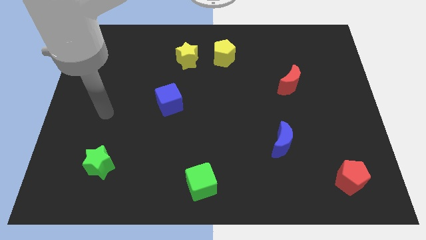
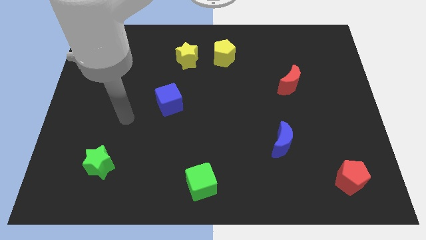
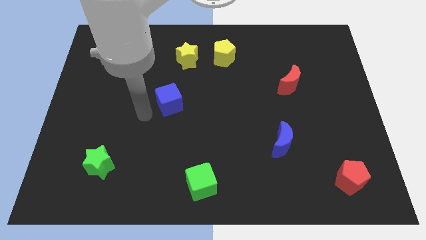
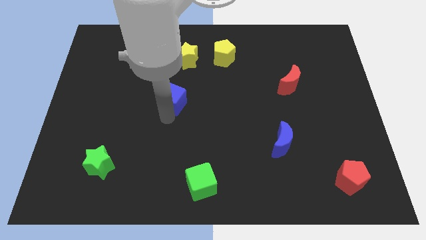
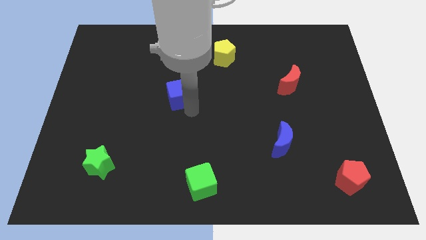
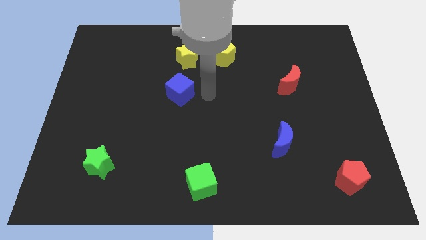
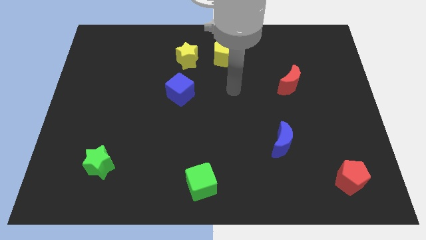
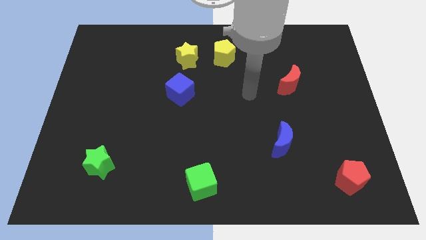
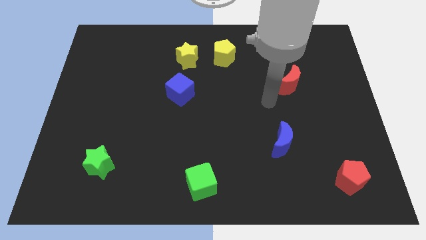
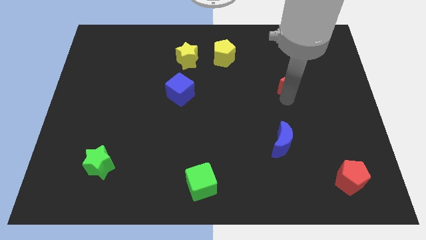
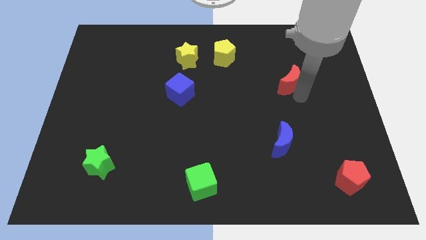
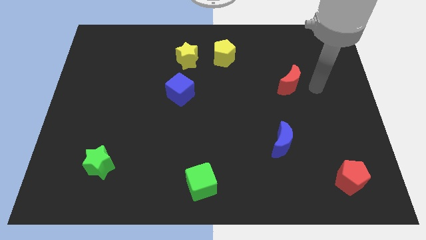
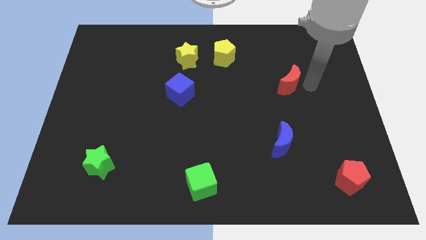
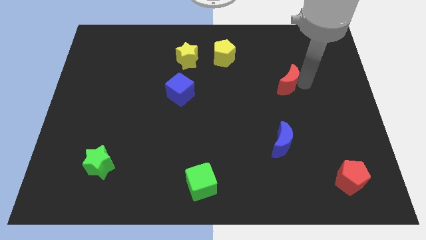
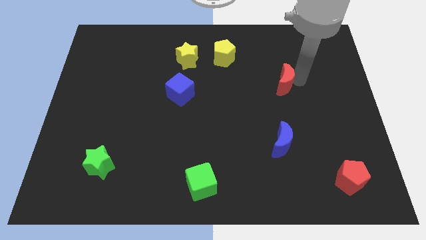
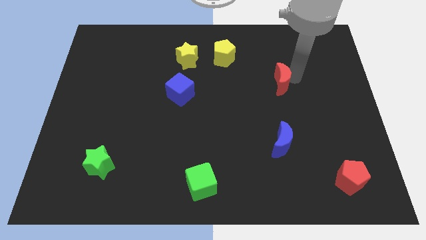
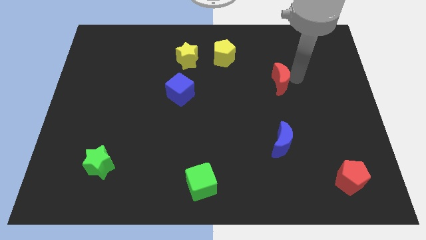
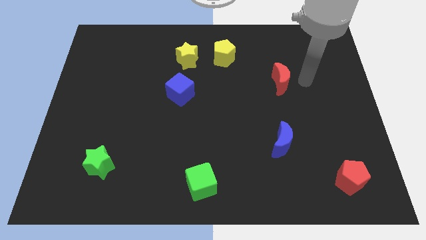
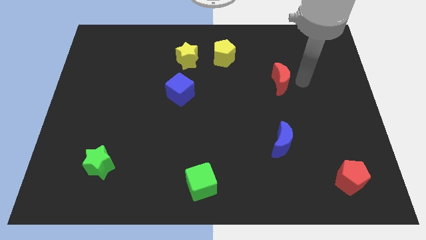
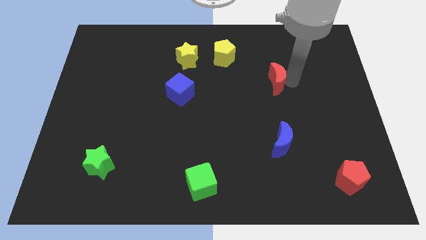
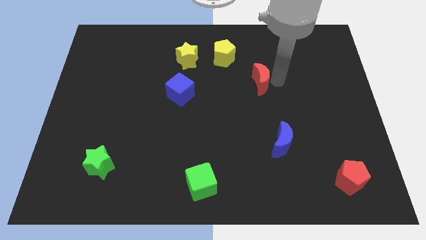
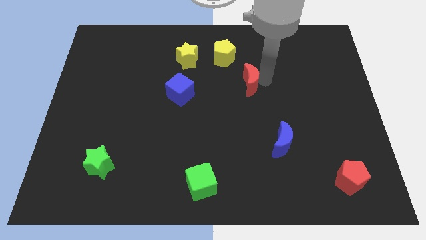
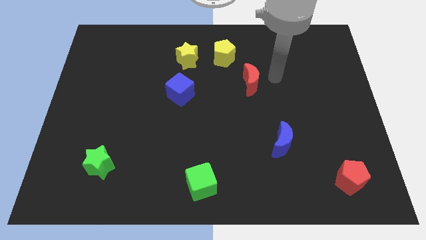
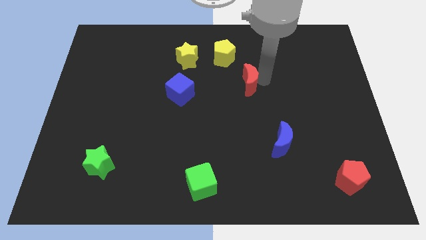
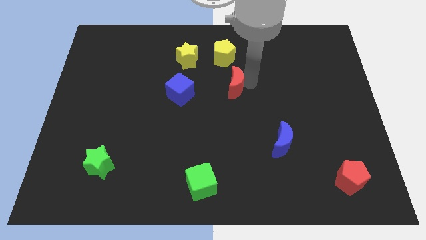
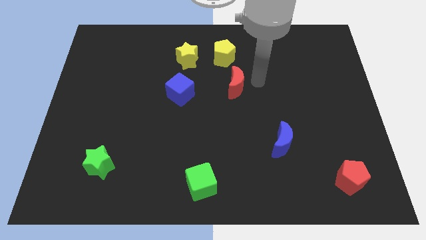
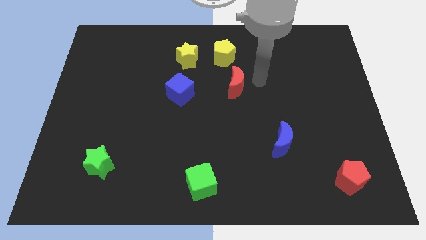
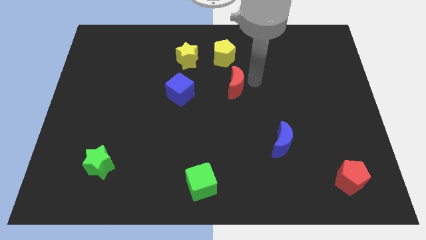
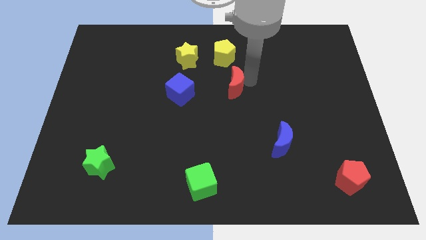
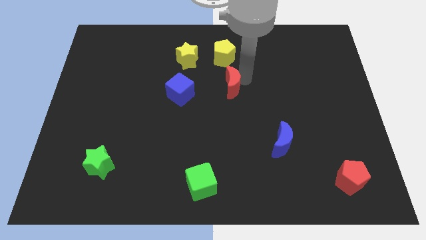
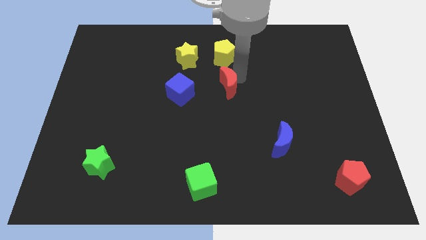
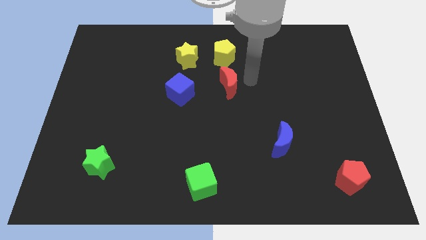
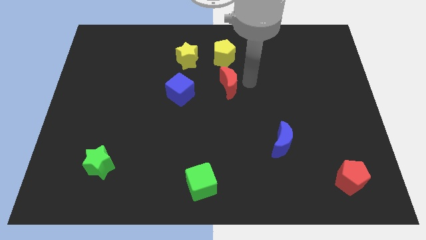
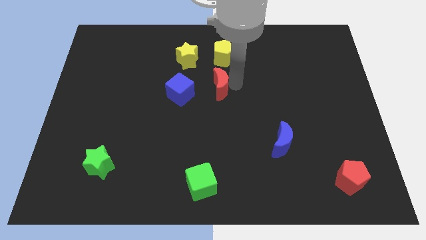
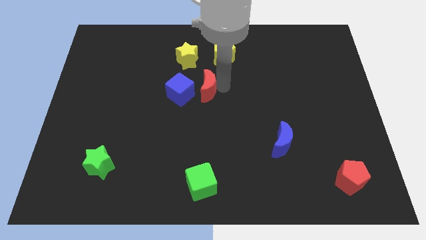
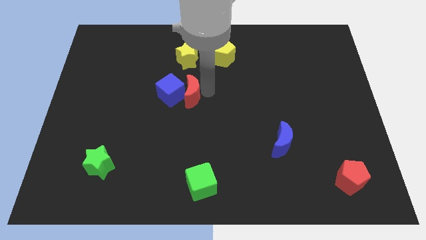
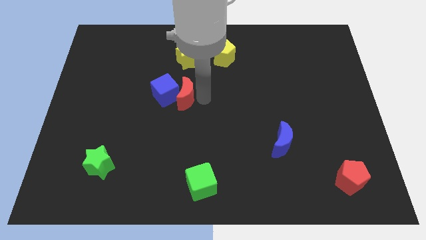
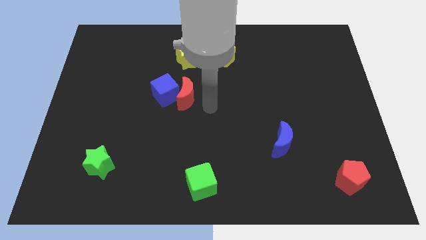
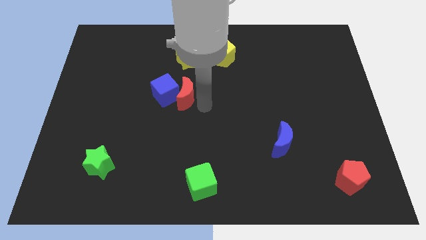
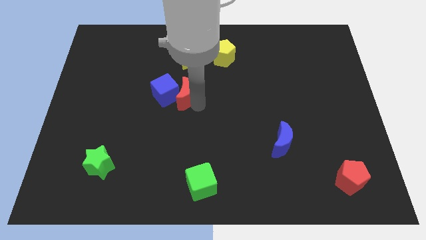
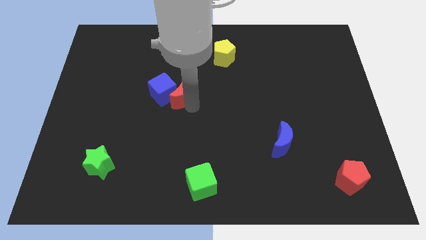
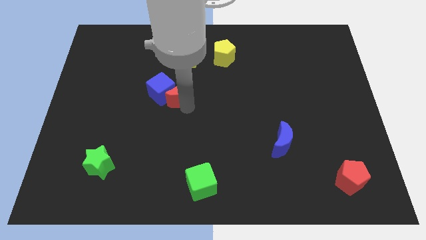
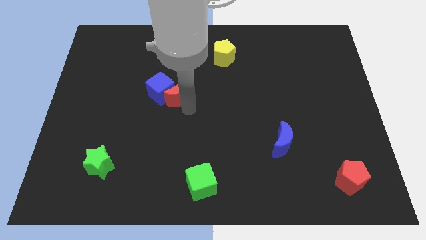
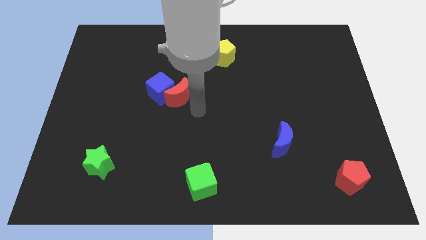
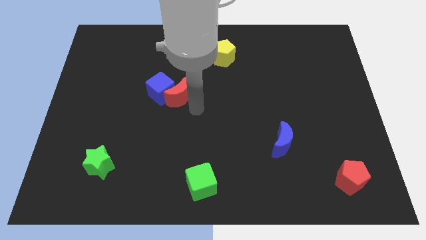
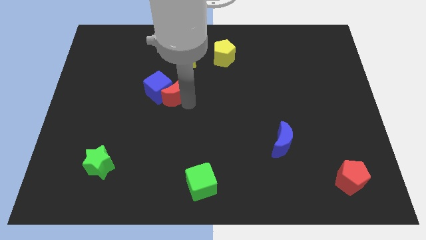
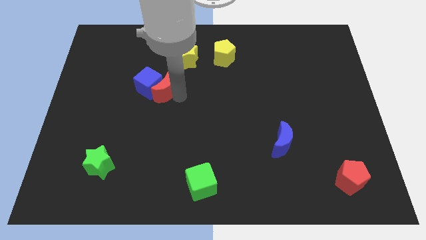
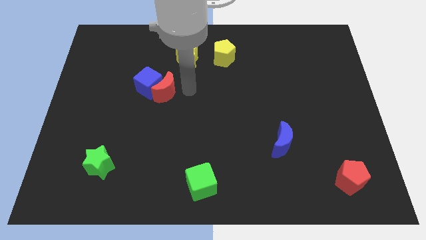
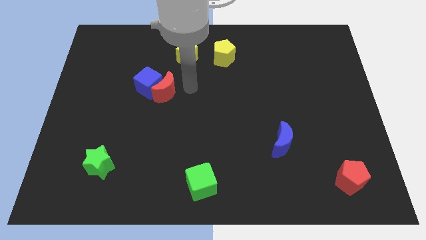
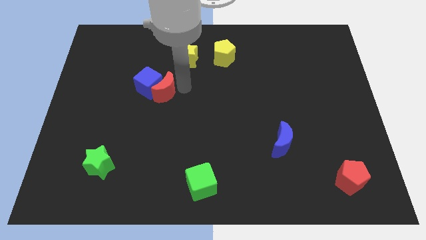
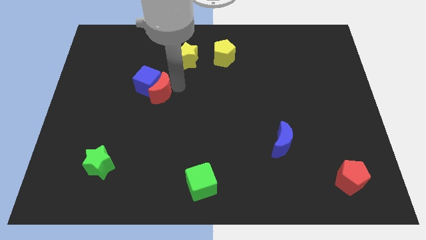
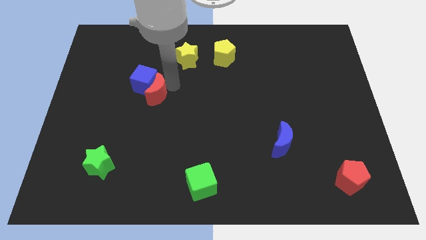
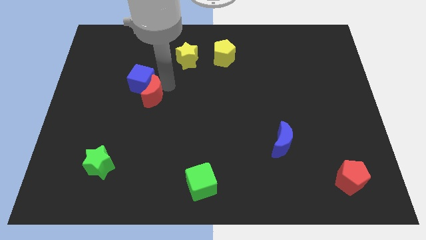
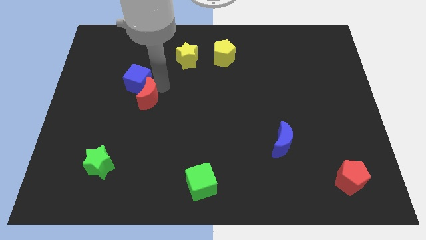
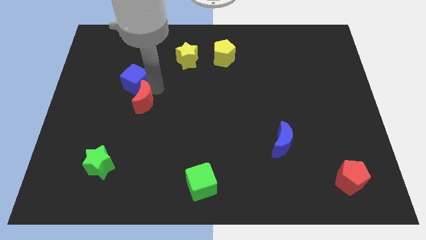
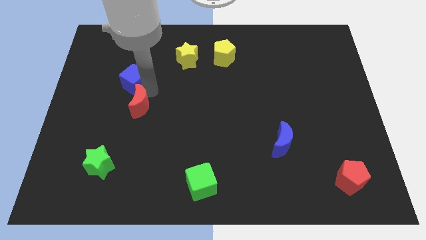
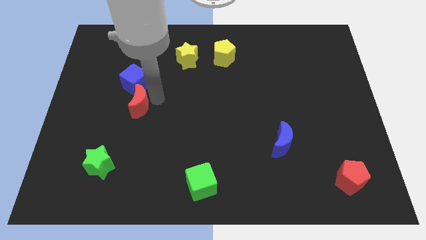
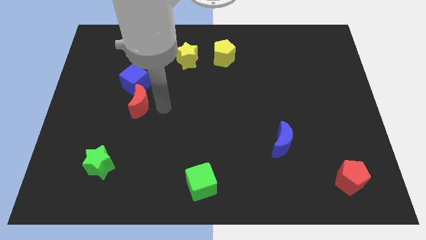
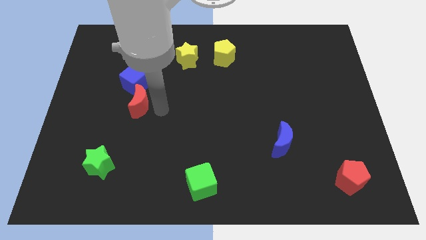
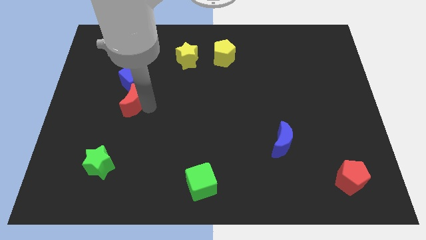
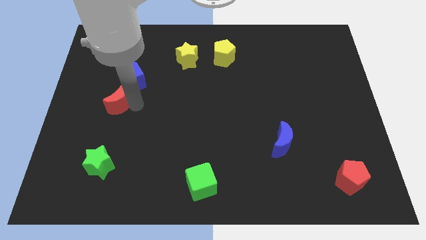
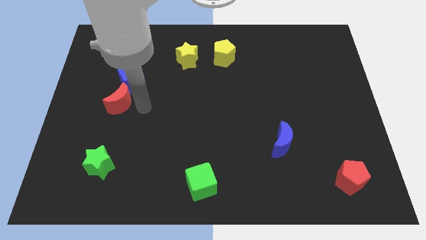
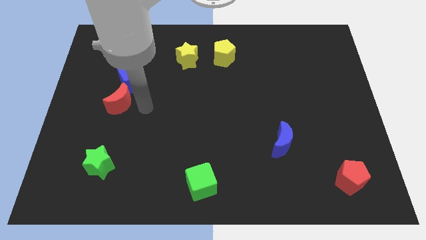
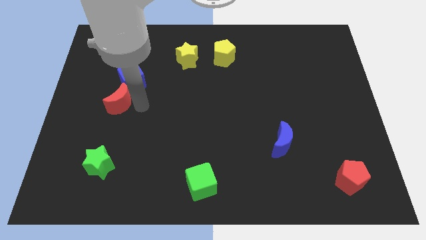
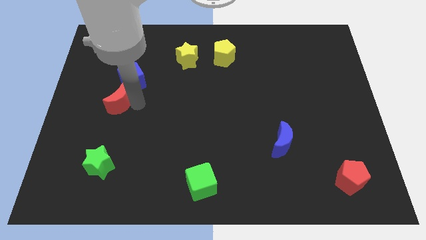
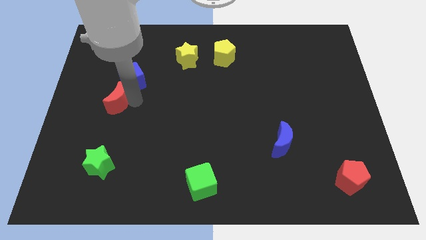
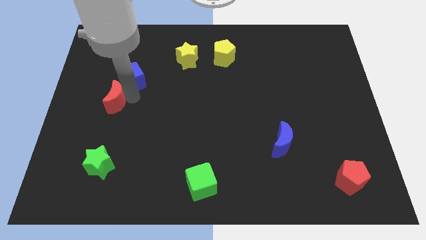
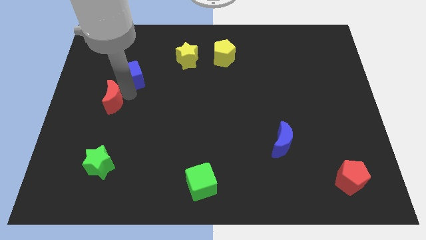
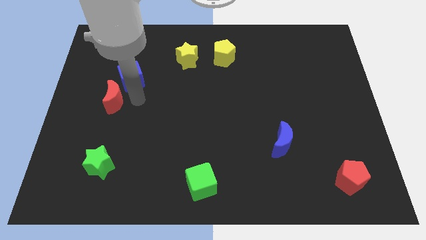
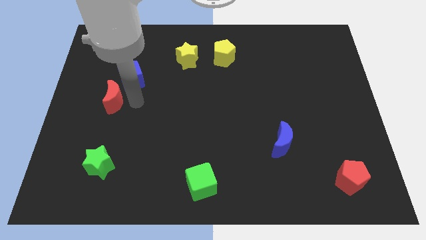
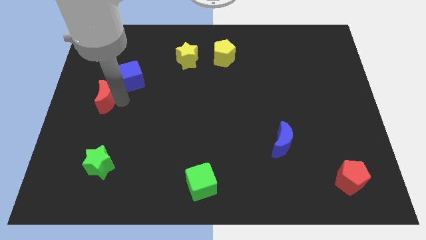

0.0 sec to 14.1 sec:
push the red moon to the center left
